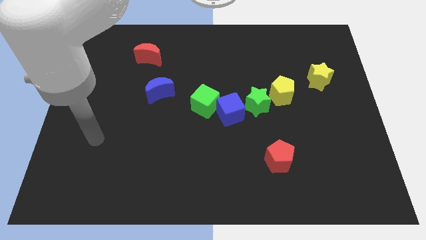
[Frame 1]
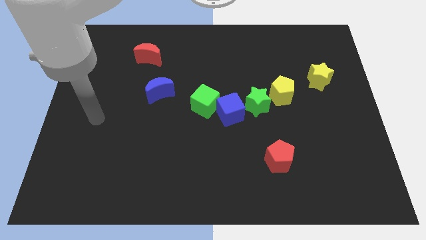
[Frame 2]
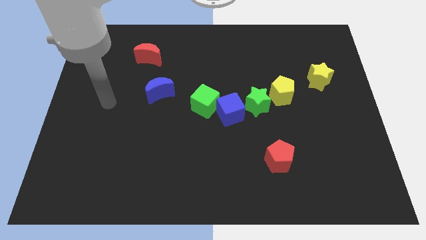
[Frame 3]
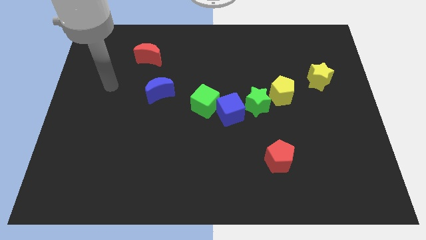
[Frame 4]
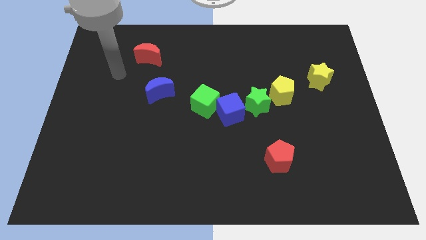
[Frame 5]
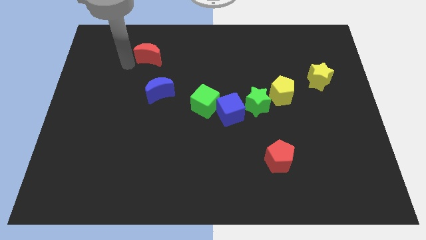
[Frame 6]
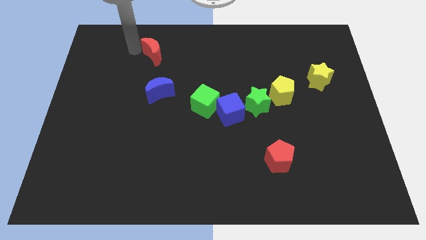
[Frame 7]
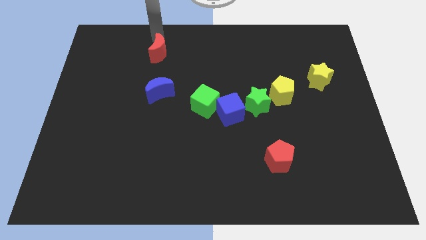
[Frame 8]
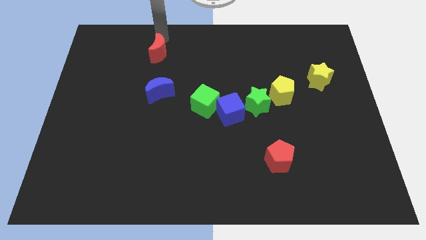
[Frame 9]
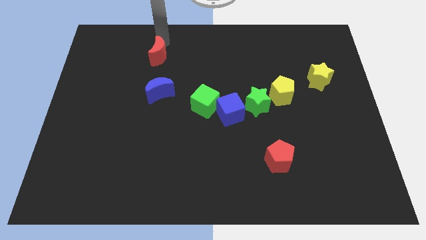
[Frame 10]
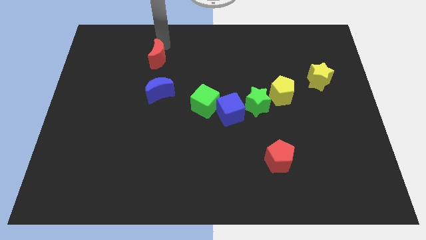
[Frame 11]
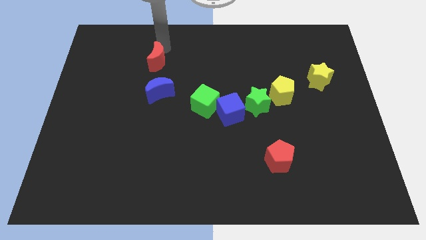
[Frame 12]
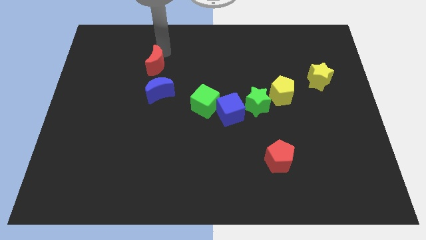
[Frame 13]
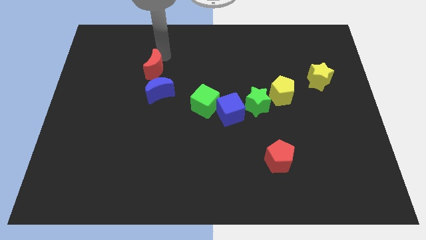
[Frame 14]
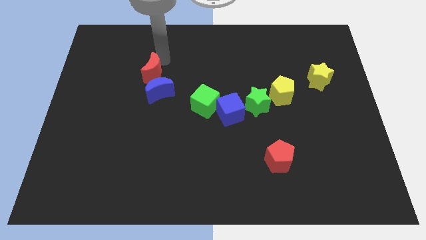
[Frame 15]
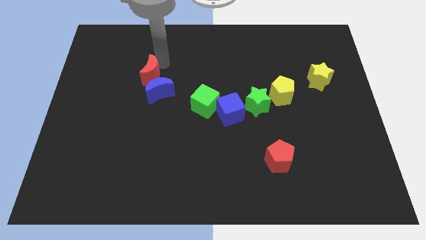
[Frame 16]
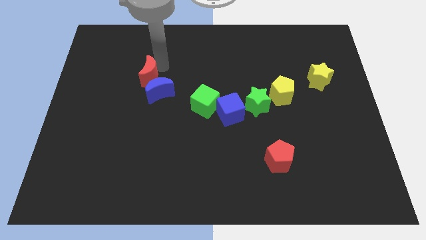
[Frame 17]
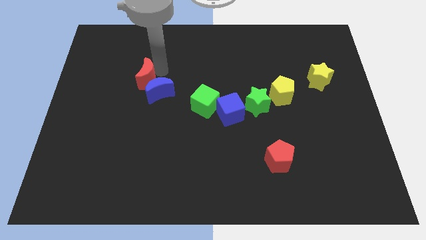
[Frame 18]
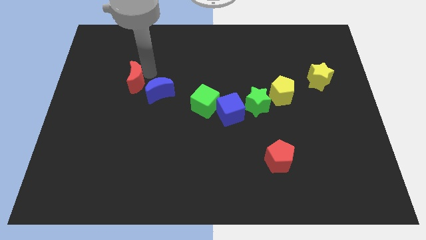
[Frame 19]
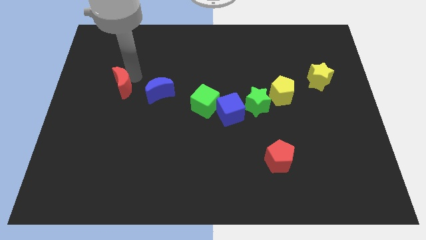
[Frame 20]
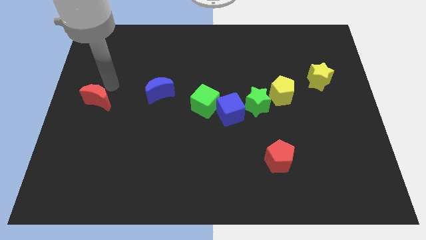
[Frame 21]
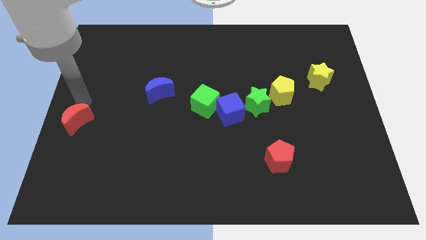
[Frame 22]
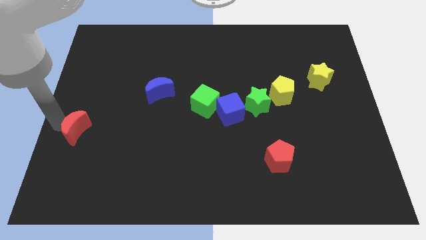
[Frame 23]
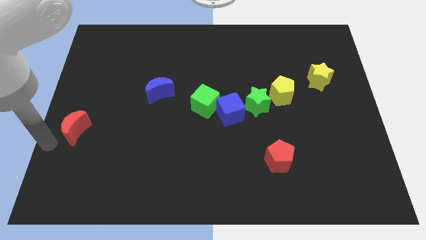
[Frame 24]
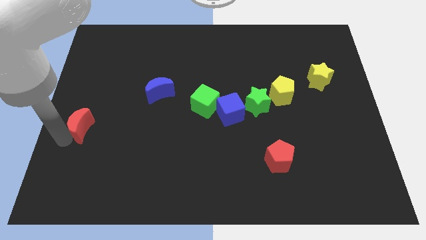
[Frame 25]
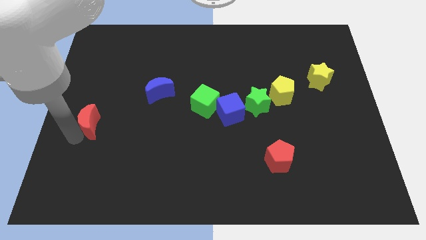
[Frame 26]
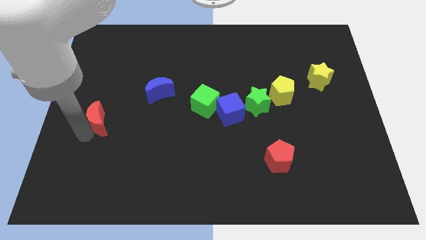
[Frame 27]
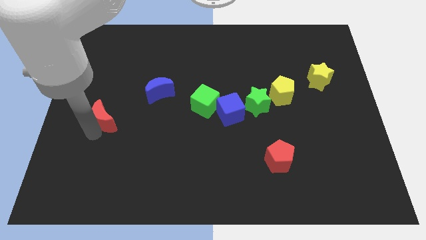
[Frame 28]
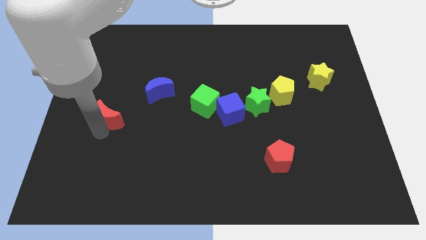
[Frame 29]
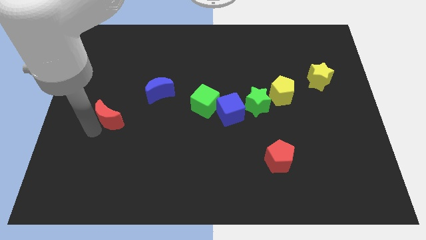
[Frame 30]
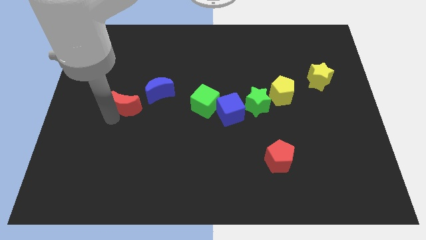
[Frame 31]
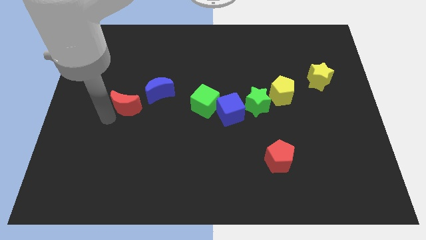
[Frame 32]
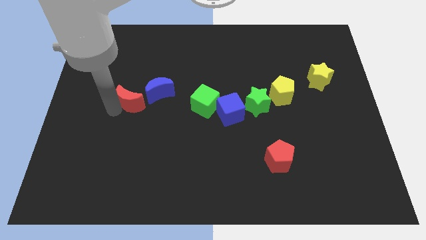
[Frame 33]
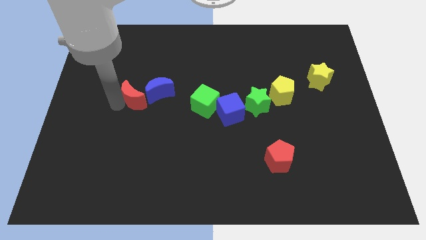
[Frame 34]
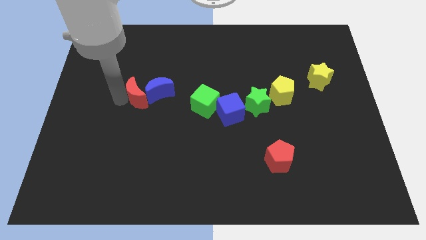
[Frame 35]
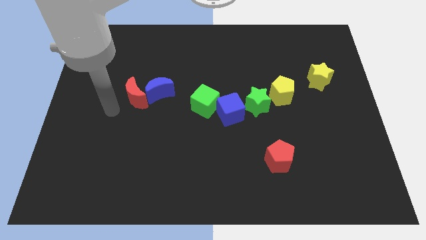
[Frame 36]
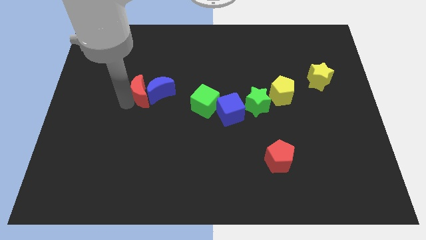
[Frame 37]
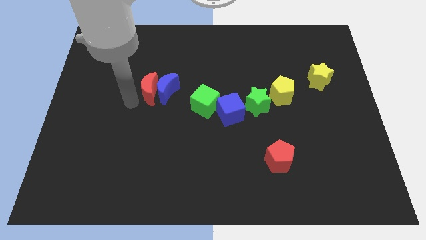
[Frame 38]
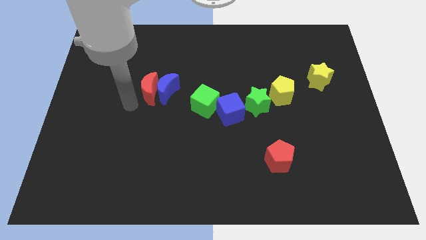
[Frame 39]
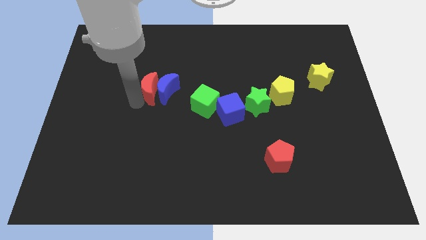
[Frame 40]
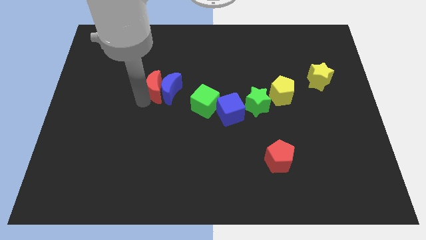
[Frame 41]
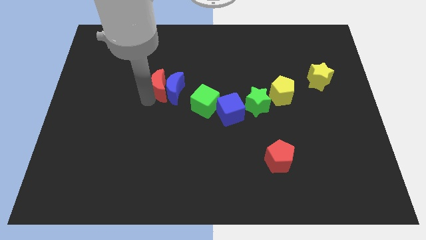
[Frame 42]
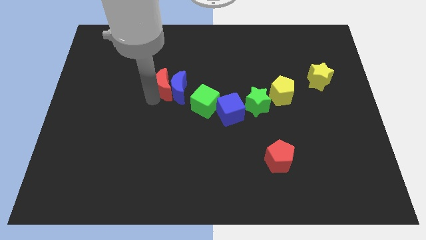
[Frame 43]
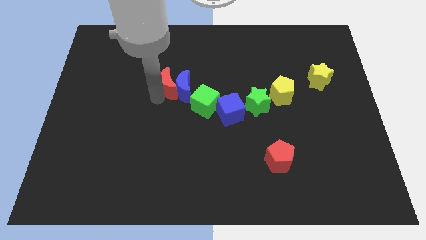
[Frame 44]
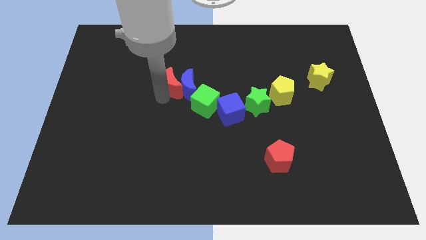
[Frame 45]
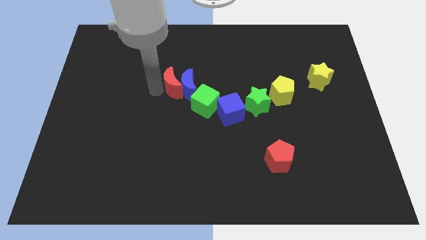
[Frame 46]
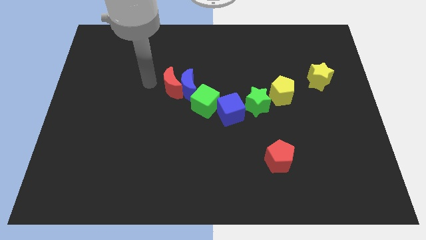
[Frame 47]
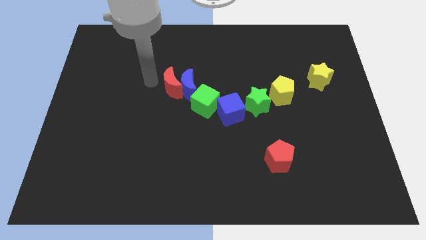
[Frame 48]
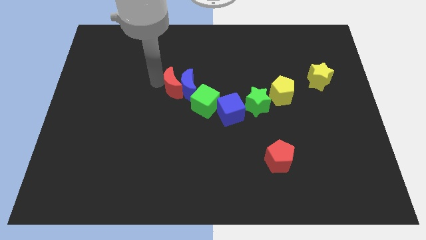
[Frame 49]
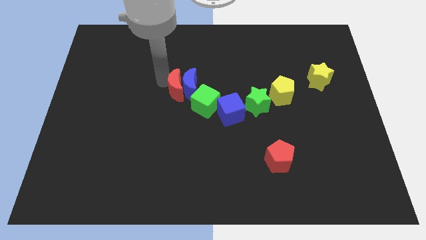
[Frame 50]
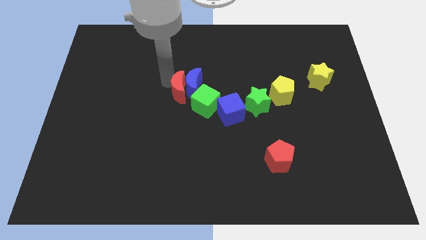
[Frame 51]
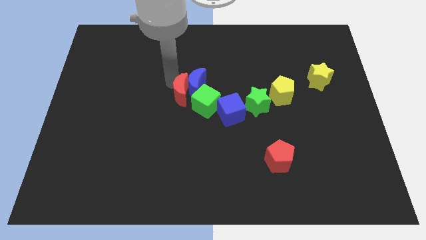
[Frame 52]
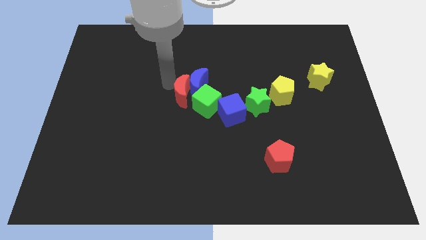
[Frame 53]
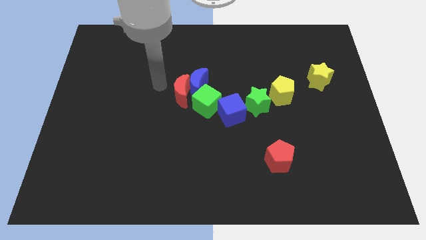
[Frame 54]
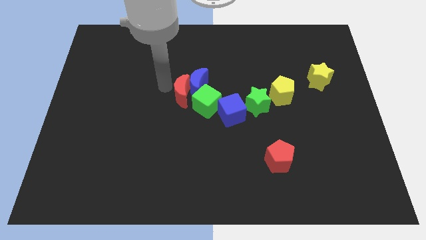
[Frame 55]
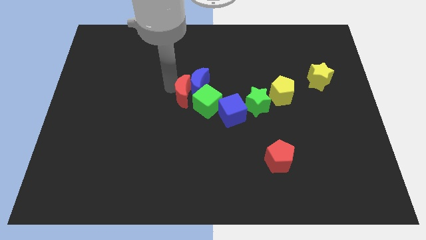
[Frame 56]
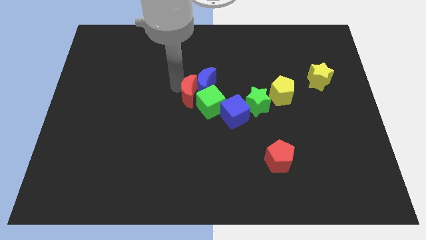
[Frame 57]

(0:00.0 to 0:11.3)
push the red moon towards the green cube
